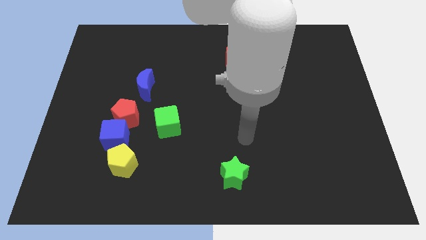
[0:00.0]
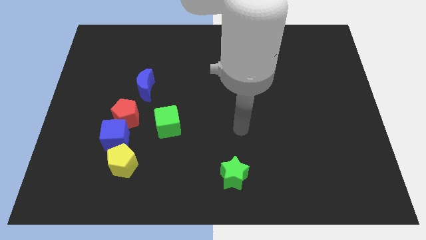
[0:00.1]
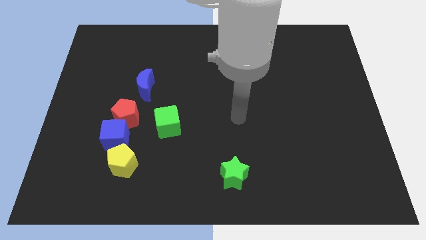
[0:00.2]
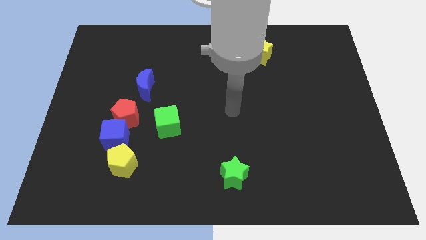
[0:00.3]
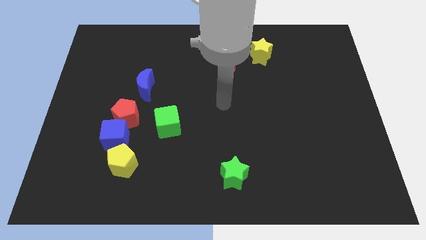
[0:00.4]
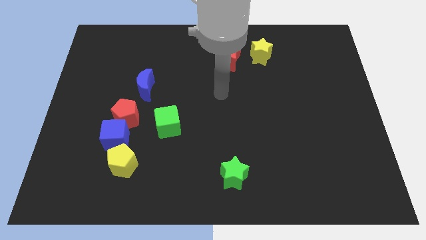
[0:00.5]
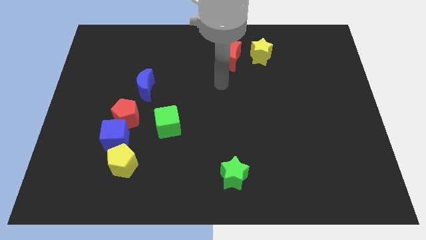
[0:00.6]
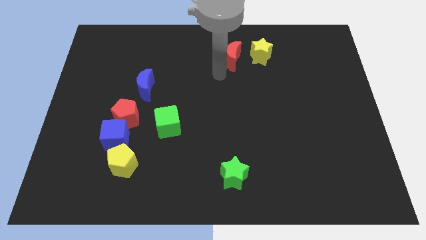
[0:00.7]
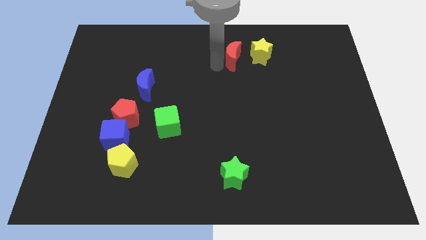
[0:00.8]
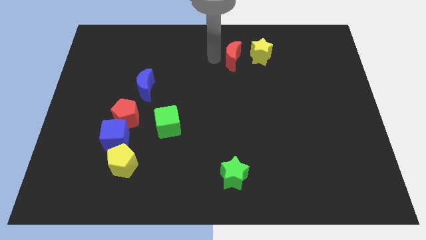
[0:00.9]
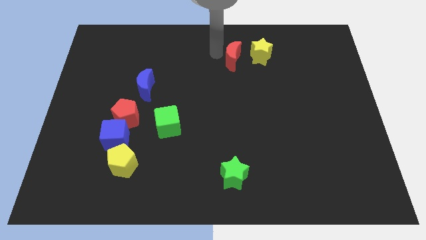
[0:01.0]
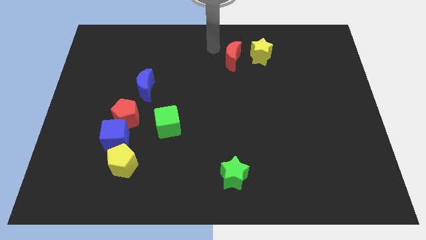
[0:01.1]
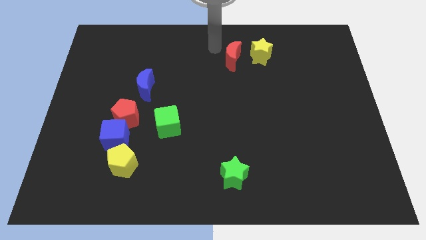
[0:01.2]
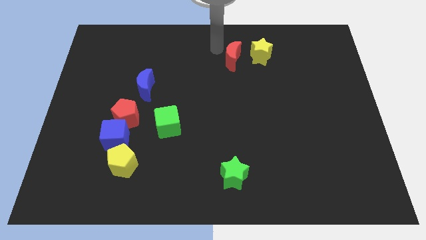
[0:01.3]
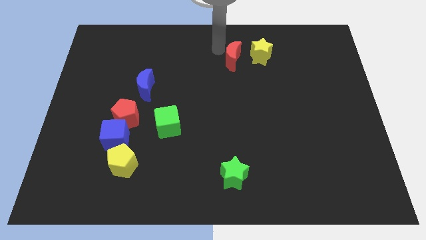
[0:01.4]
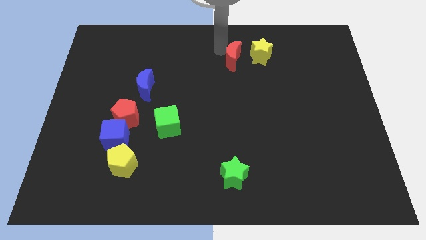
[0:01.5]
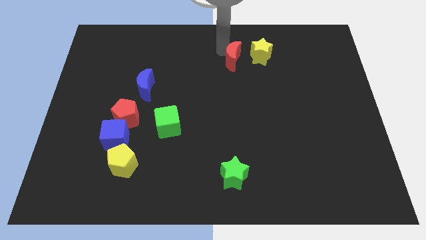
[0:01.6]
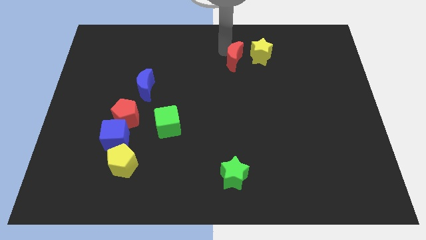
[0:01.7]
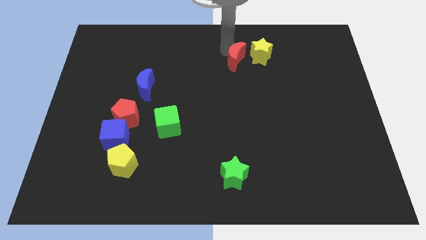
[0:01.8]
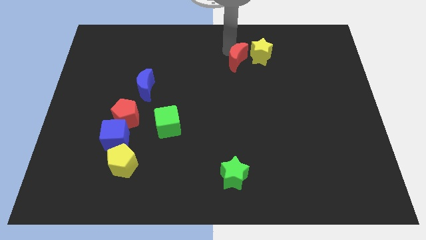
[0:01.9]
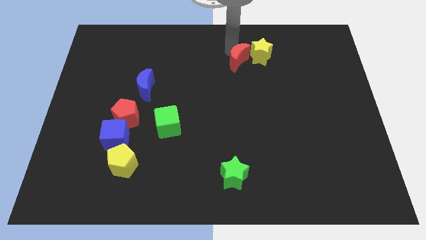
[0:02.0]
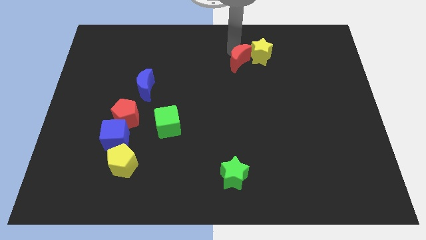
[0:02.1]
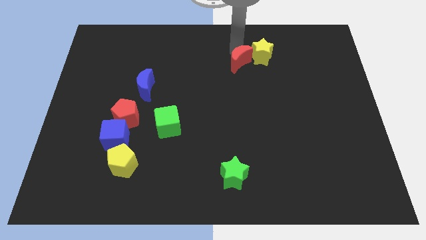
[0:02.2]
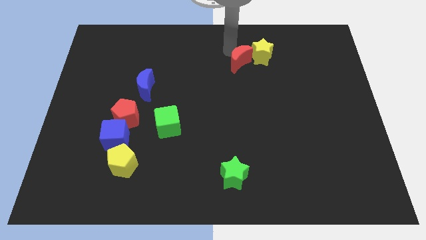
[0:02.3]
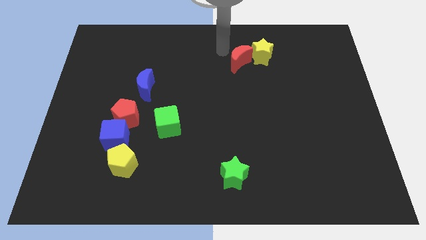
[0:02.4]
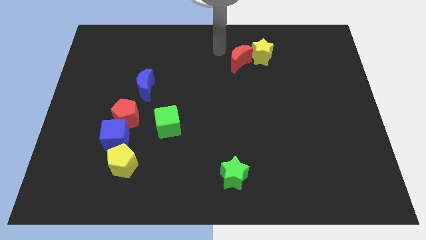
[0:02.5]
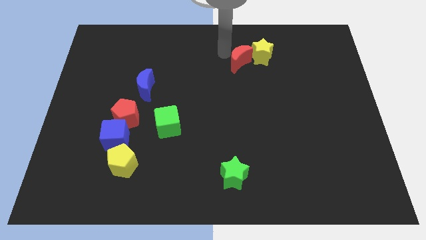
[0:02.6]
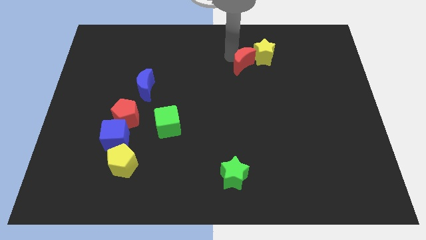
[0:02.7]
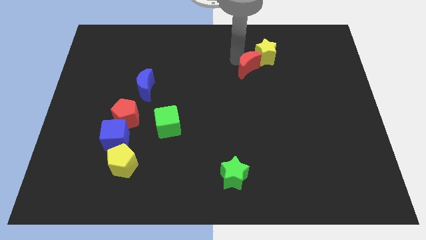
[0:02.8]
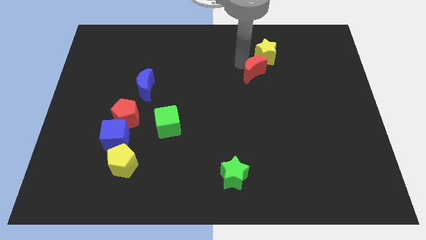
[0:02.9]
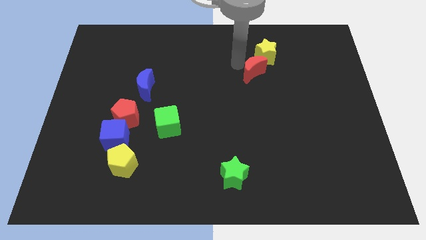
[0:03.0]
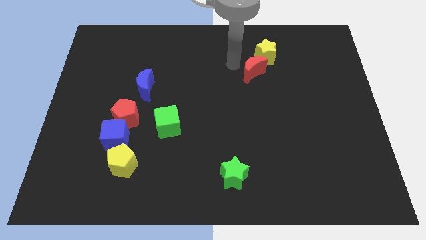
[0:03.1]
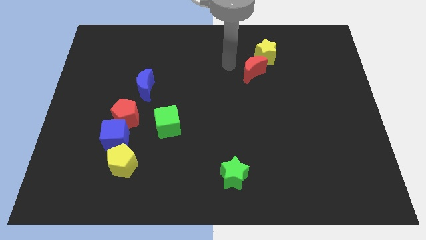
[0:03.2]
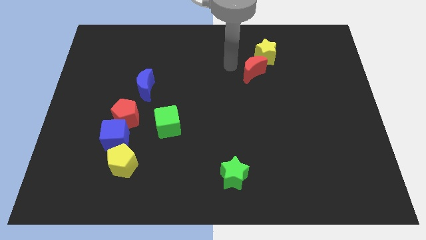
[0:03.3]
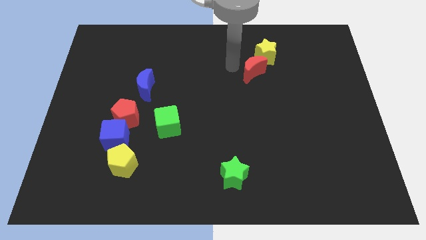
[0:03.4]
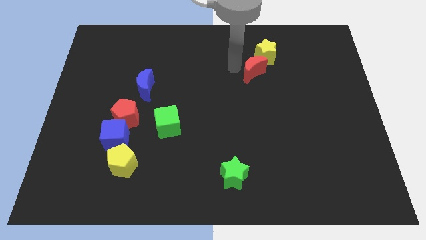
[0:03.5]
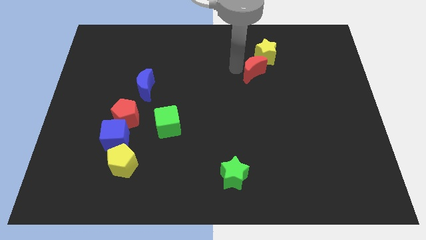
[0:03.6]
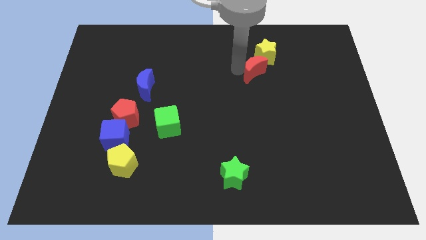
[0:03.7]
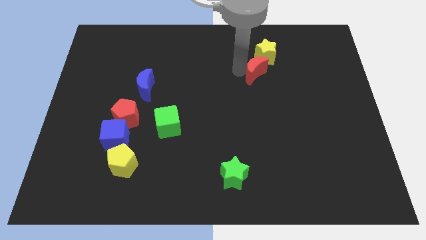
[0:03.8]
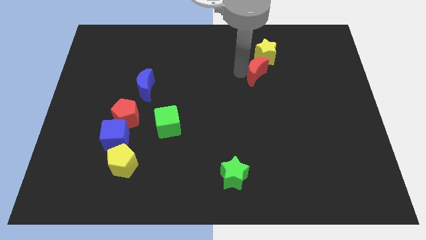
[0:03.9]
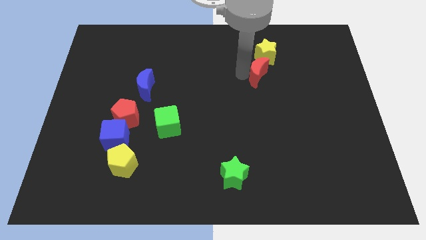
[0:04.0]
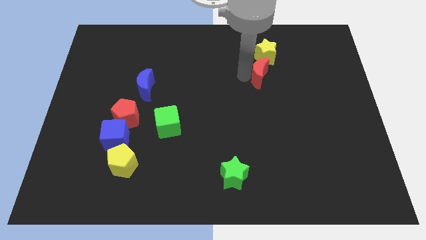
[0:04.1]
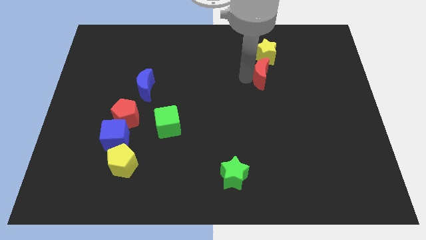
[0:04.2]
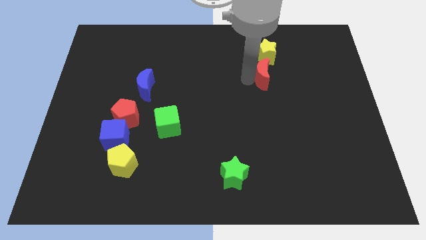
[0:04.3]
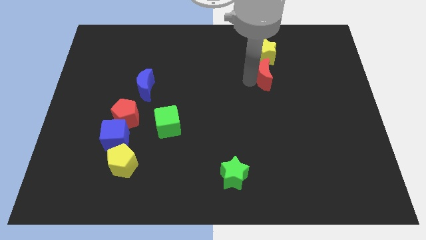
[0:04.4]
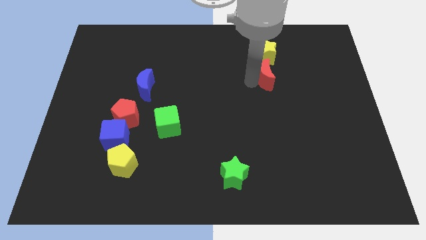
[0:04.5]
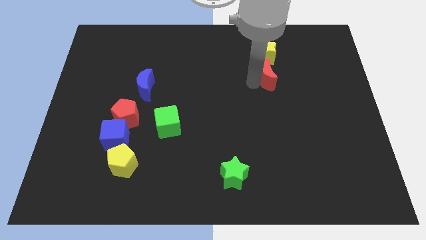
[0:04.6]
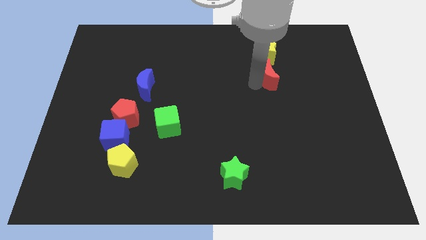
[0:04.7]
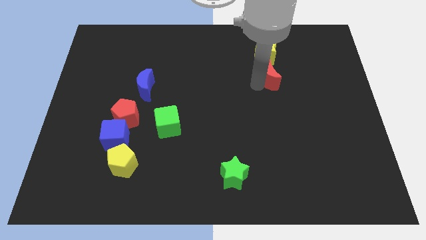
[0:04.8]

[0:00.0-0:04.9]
slide the red moon to the right a little

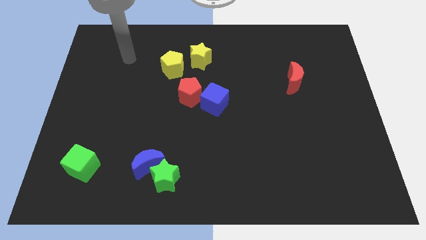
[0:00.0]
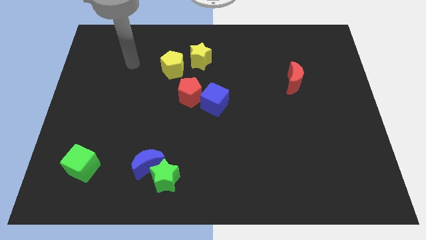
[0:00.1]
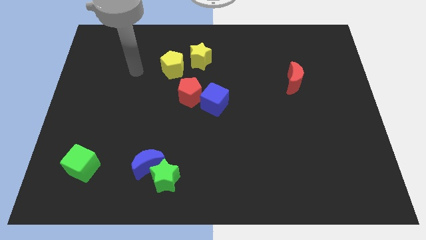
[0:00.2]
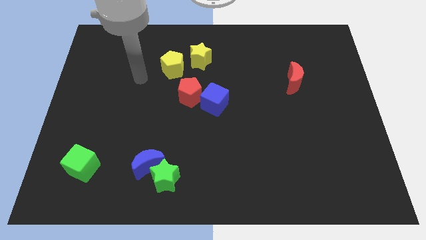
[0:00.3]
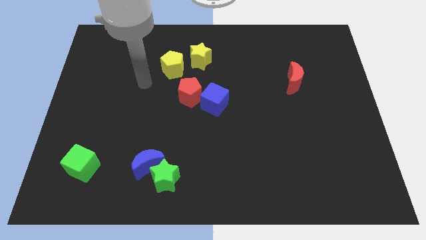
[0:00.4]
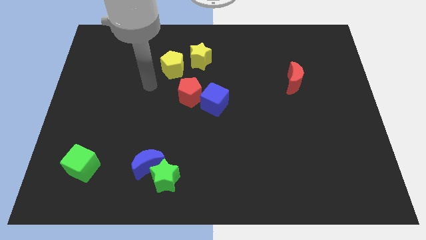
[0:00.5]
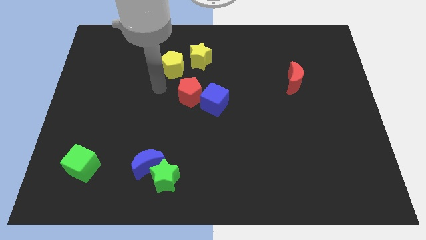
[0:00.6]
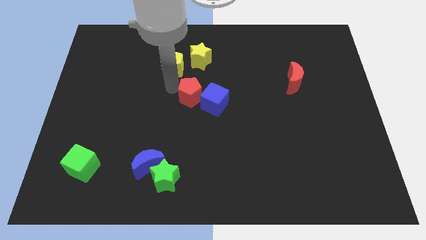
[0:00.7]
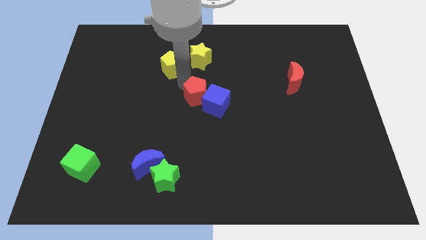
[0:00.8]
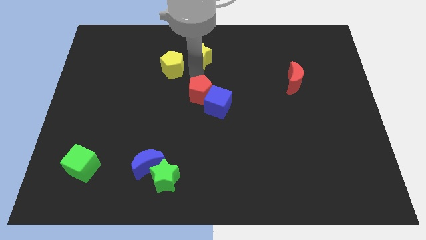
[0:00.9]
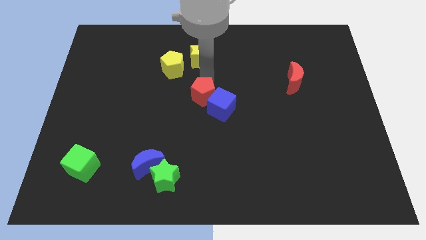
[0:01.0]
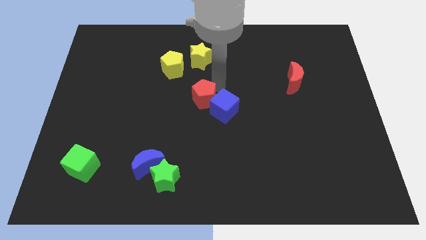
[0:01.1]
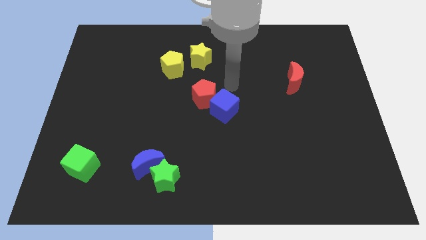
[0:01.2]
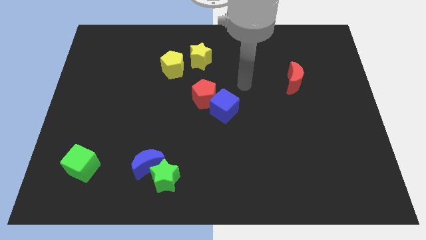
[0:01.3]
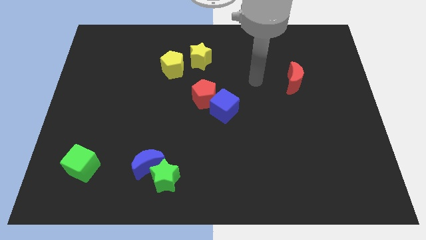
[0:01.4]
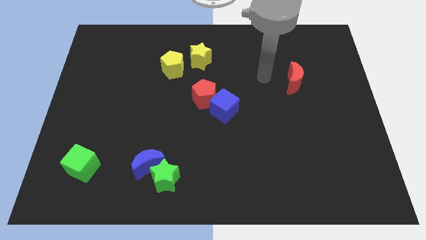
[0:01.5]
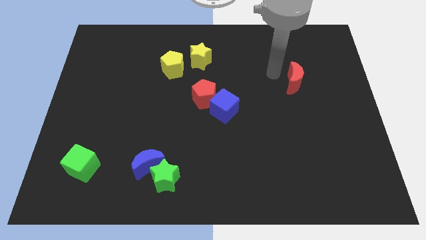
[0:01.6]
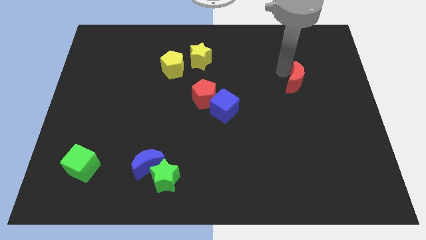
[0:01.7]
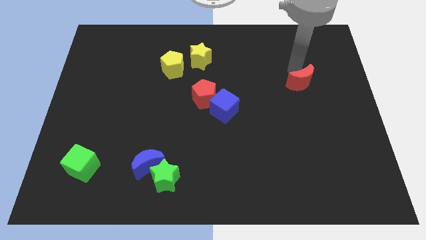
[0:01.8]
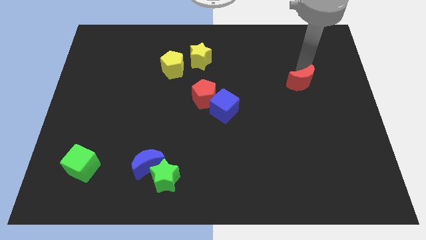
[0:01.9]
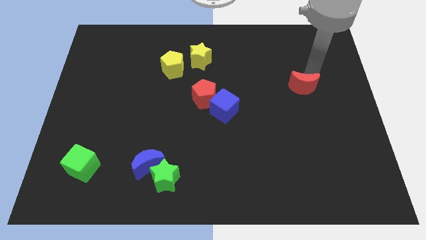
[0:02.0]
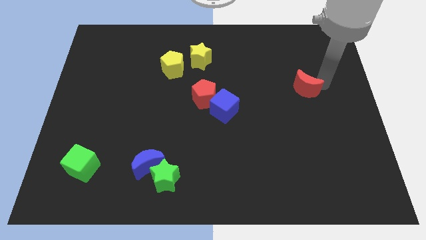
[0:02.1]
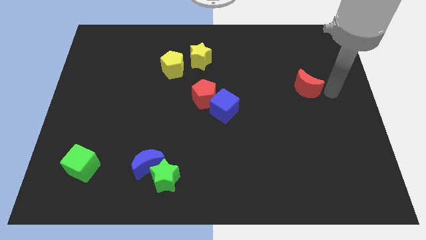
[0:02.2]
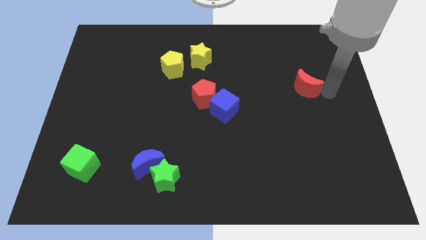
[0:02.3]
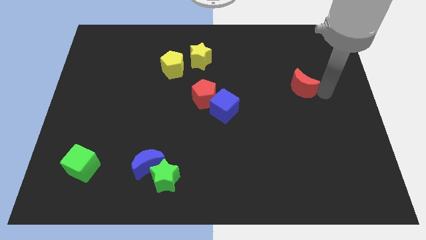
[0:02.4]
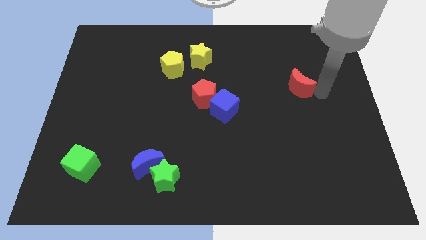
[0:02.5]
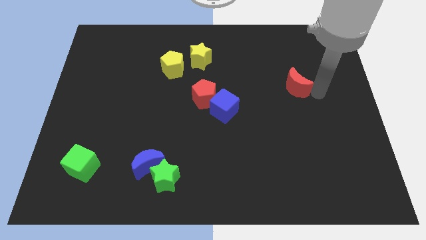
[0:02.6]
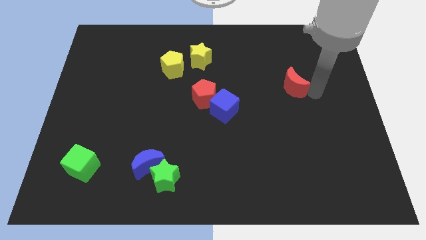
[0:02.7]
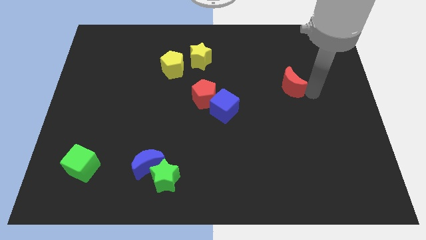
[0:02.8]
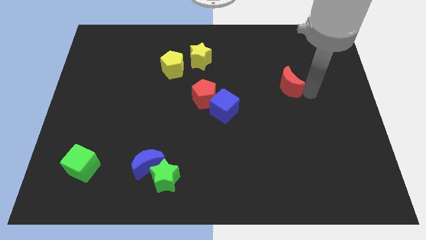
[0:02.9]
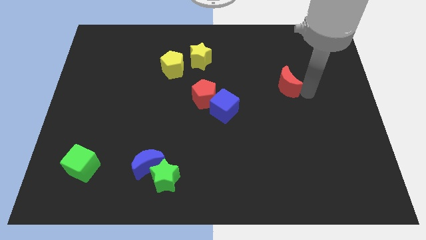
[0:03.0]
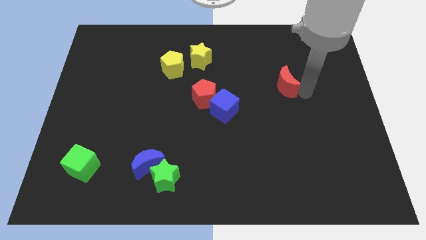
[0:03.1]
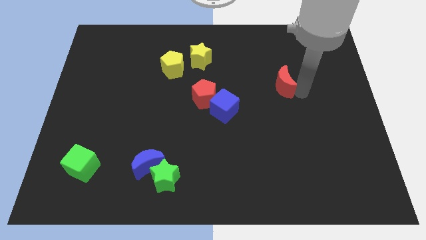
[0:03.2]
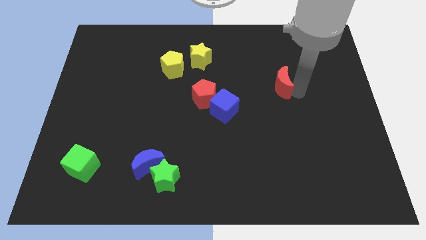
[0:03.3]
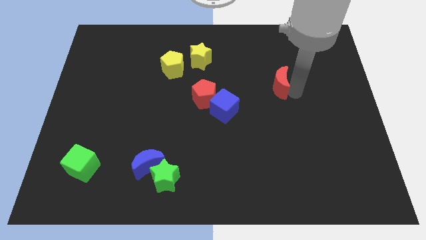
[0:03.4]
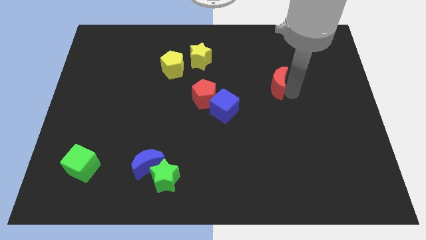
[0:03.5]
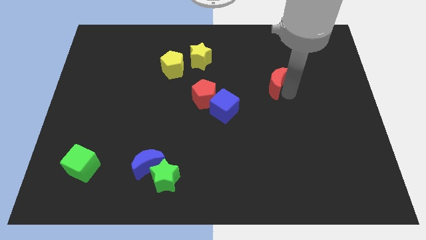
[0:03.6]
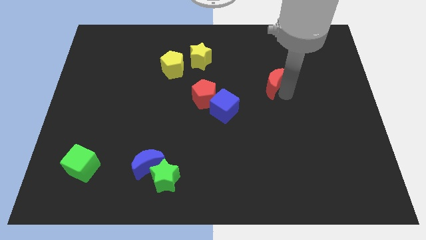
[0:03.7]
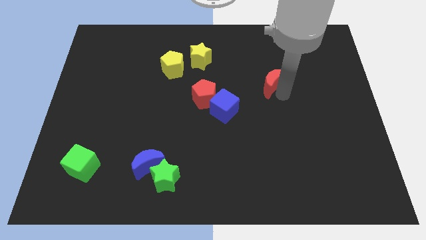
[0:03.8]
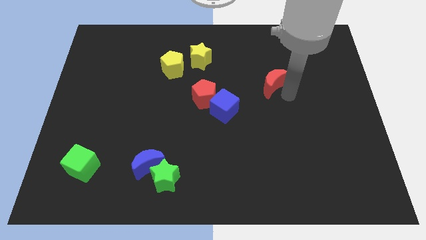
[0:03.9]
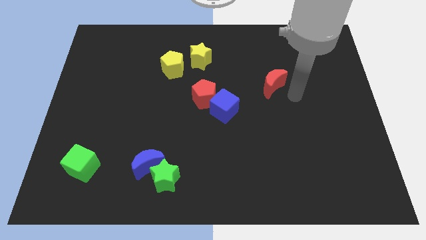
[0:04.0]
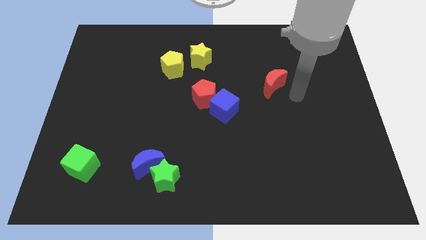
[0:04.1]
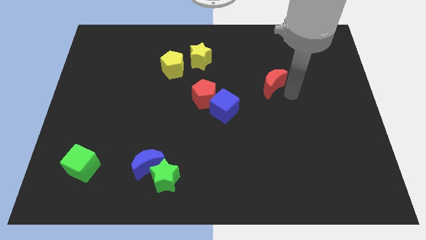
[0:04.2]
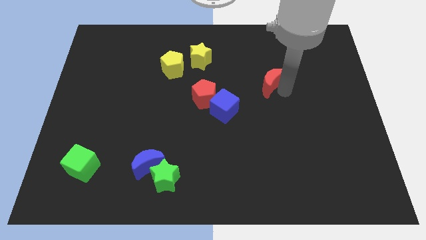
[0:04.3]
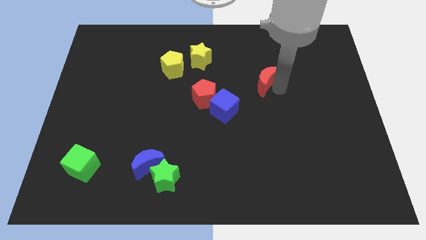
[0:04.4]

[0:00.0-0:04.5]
slightly push the red moon left
